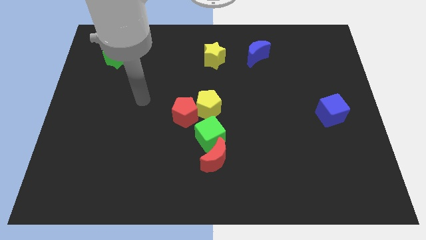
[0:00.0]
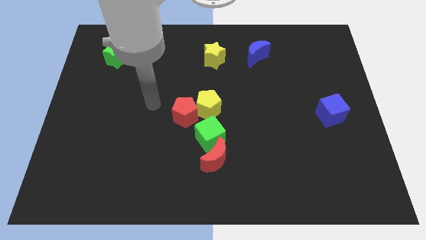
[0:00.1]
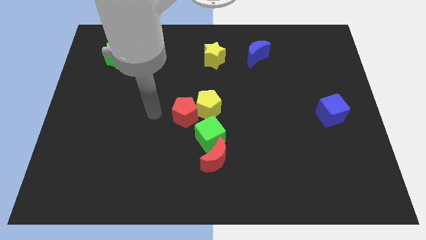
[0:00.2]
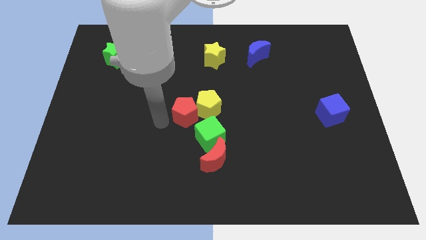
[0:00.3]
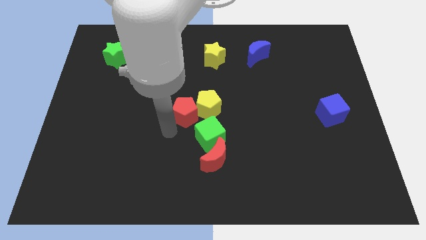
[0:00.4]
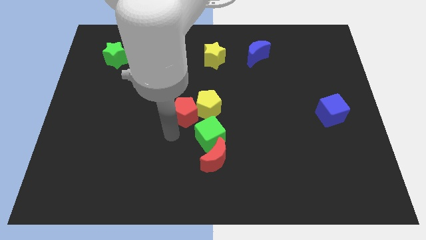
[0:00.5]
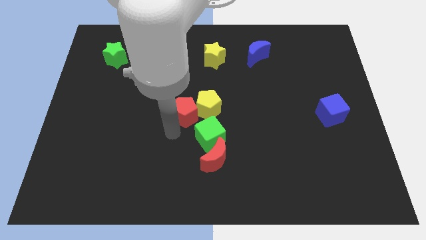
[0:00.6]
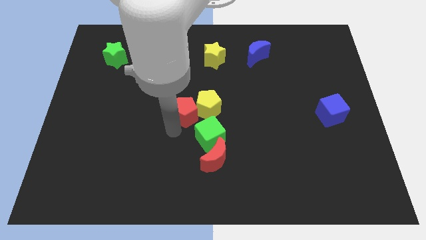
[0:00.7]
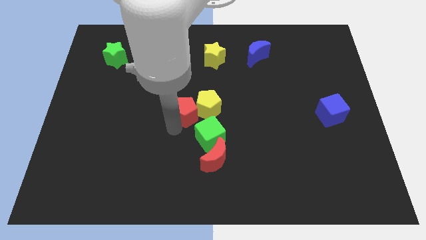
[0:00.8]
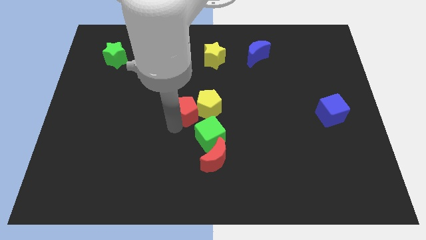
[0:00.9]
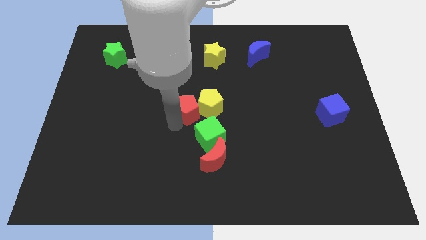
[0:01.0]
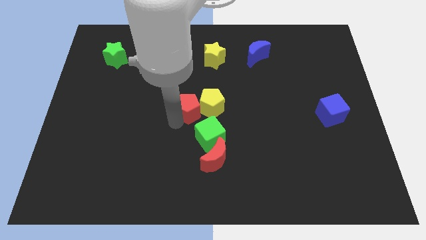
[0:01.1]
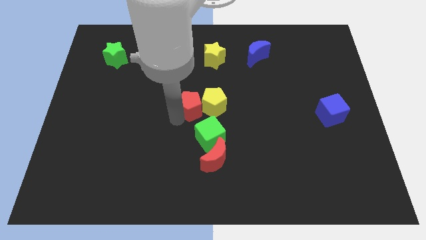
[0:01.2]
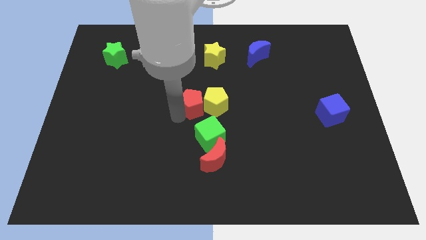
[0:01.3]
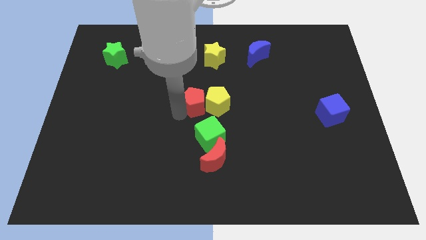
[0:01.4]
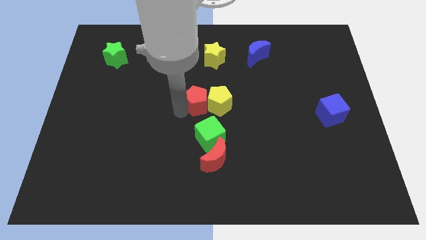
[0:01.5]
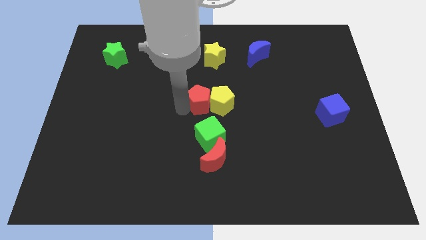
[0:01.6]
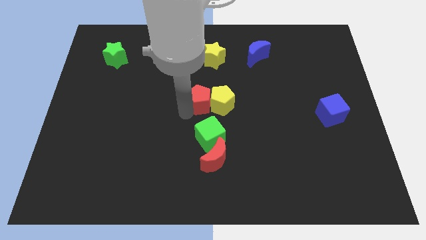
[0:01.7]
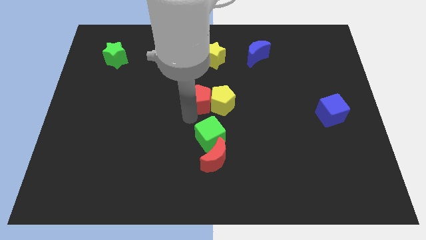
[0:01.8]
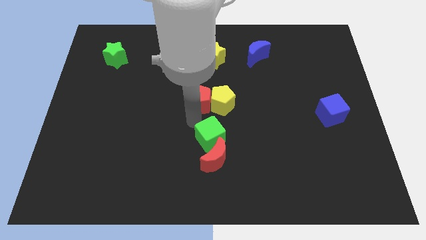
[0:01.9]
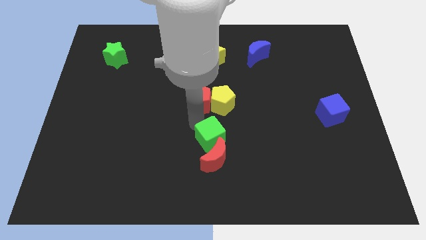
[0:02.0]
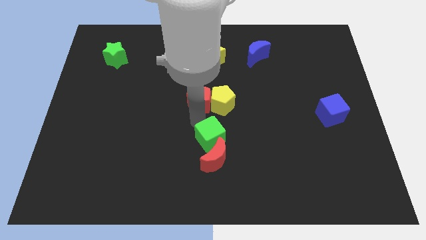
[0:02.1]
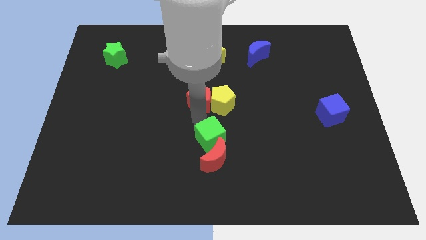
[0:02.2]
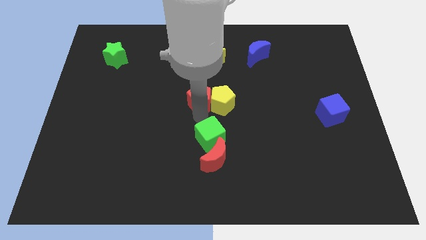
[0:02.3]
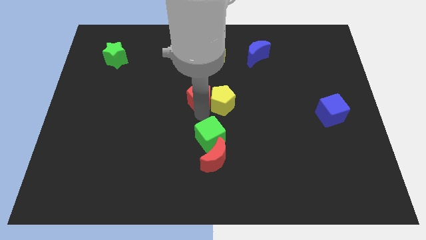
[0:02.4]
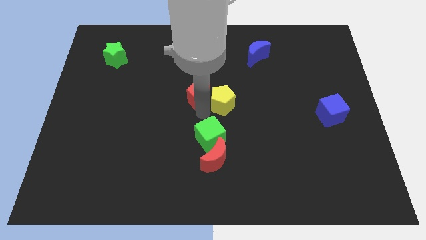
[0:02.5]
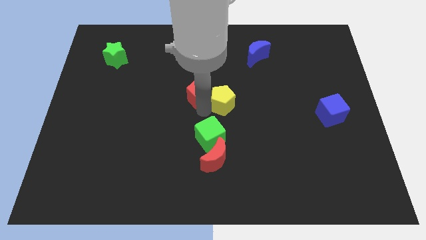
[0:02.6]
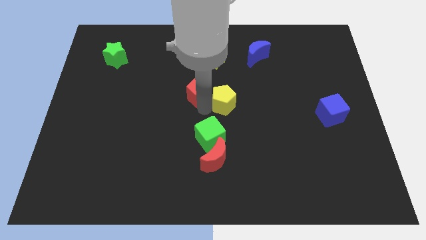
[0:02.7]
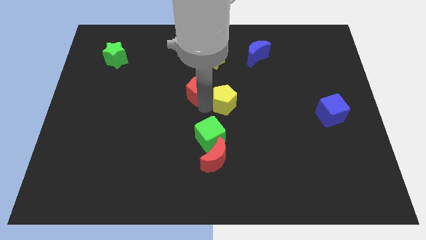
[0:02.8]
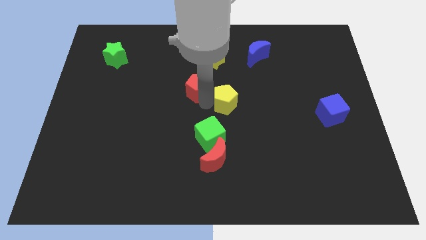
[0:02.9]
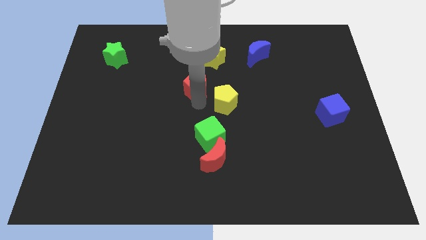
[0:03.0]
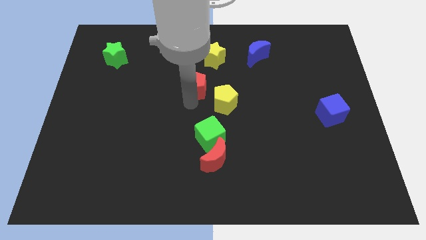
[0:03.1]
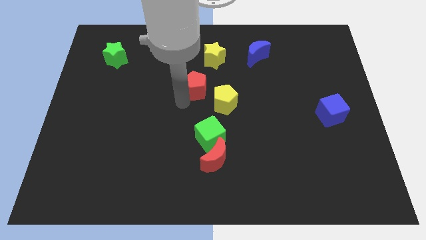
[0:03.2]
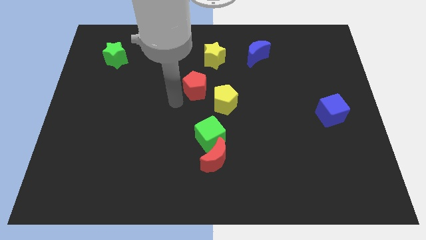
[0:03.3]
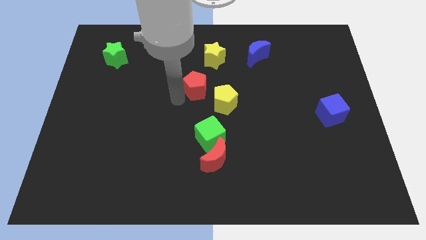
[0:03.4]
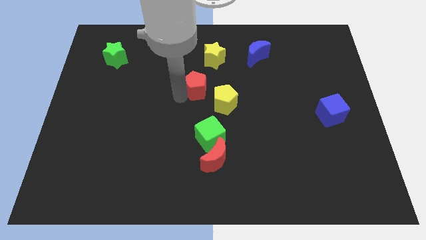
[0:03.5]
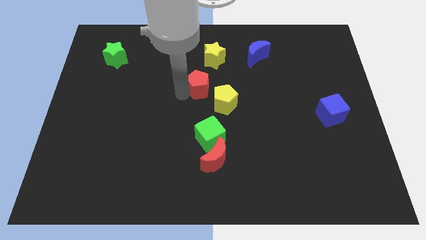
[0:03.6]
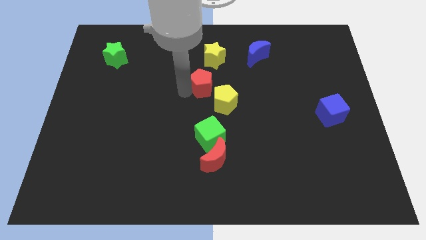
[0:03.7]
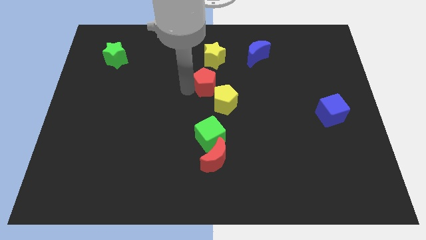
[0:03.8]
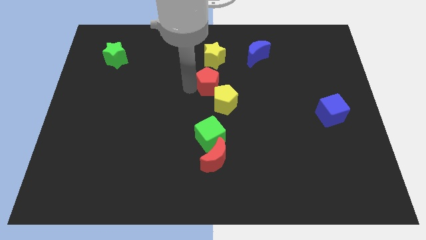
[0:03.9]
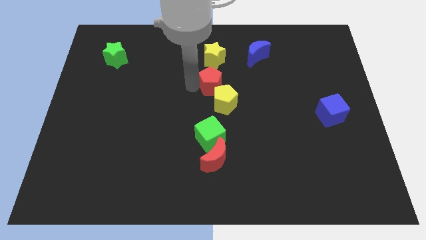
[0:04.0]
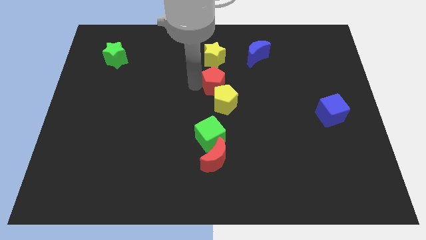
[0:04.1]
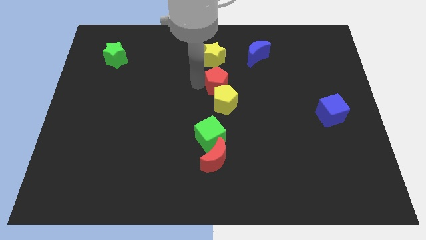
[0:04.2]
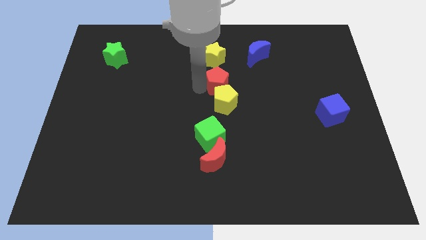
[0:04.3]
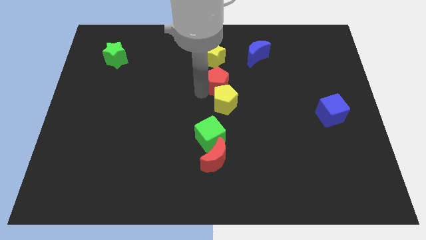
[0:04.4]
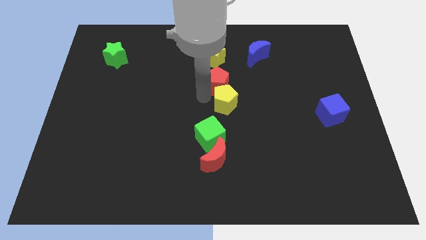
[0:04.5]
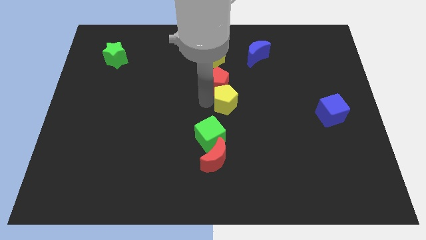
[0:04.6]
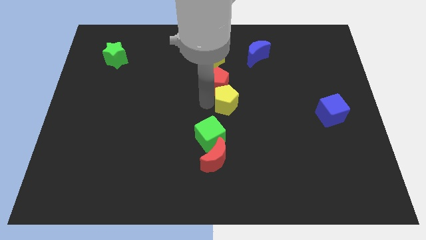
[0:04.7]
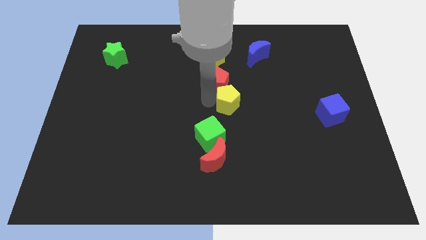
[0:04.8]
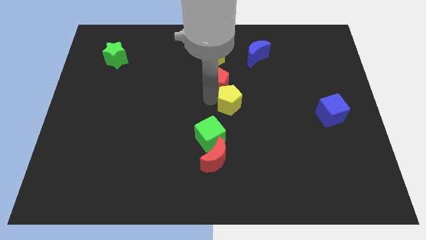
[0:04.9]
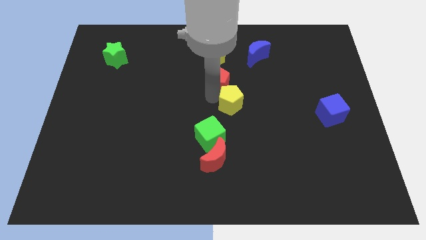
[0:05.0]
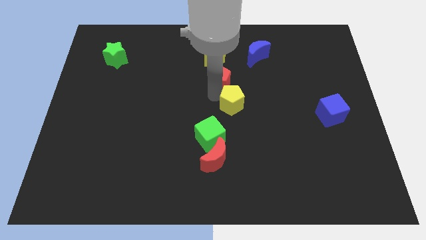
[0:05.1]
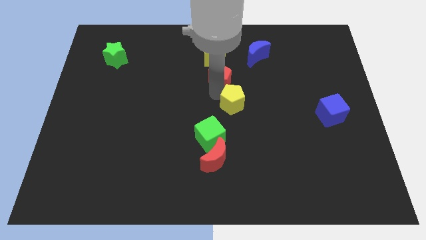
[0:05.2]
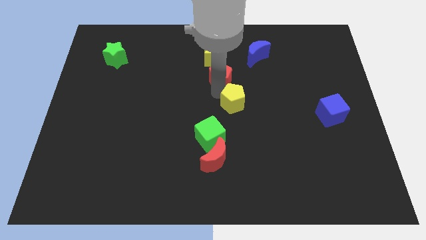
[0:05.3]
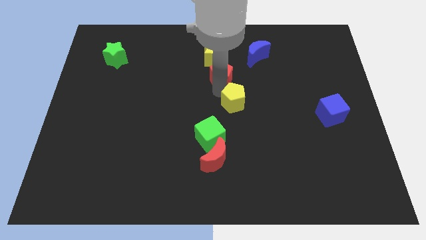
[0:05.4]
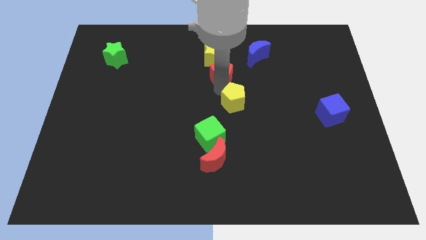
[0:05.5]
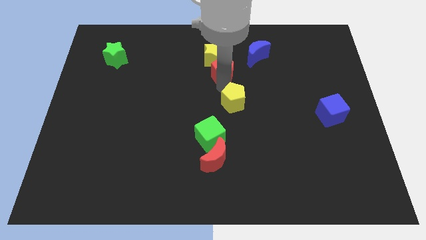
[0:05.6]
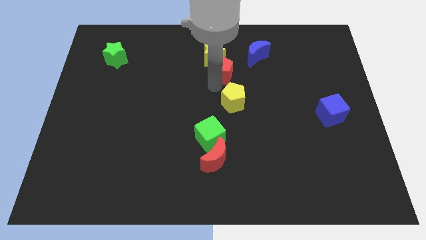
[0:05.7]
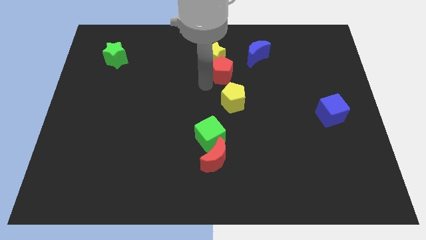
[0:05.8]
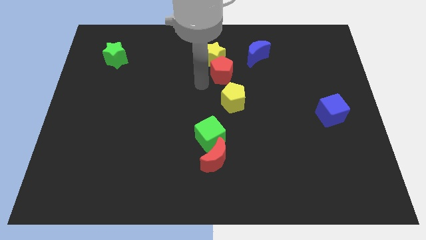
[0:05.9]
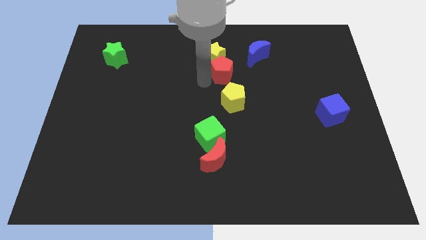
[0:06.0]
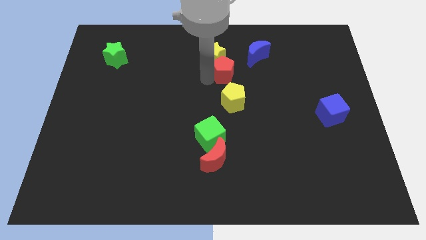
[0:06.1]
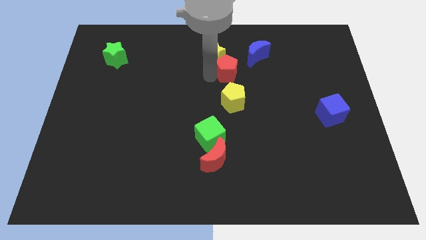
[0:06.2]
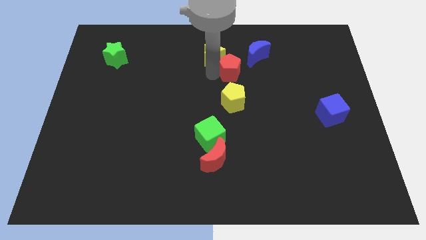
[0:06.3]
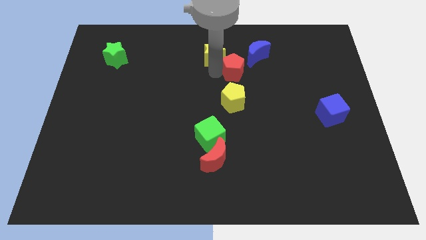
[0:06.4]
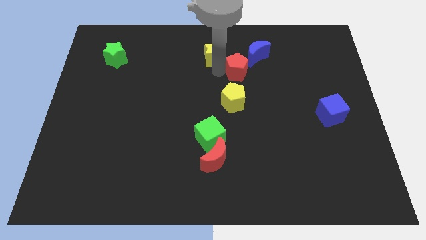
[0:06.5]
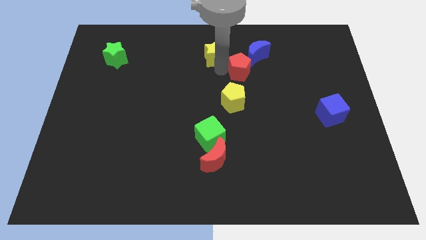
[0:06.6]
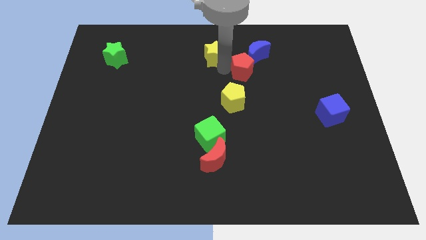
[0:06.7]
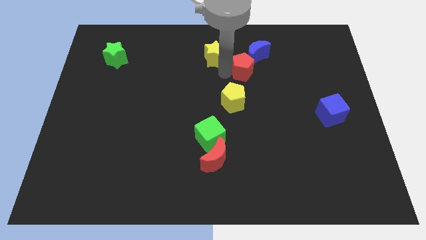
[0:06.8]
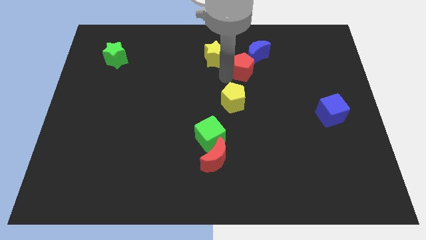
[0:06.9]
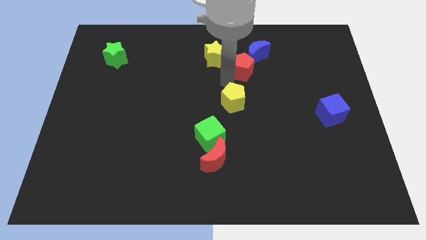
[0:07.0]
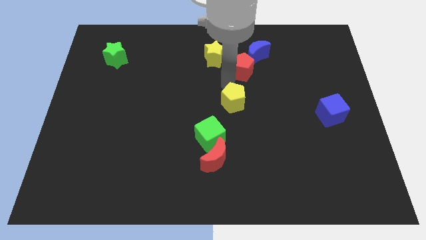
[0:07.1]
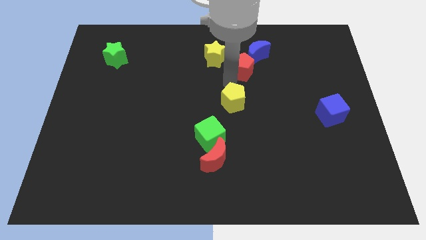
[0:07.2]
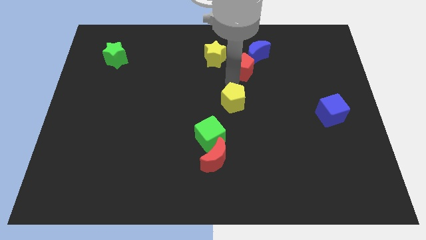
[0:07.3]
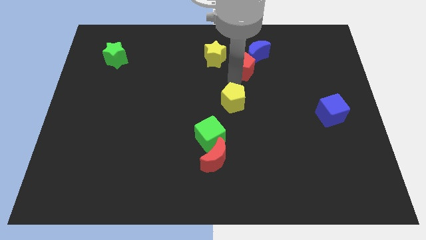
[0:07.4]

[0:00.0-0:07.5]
slide the red pentagon close to the blue moon
